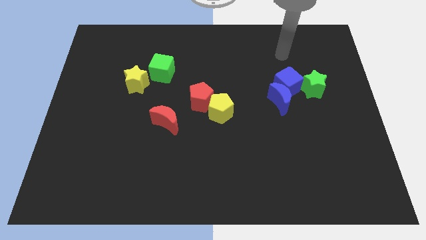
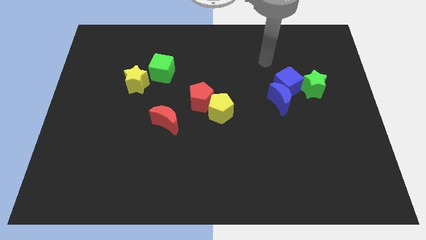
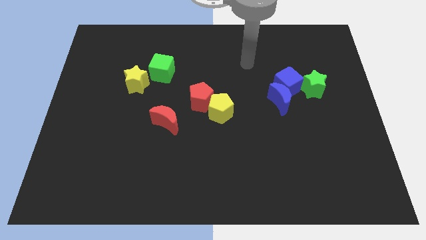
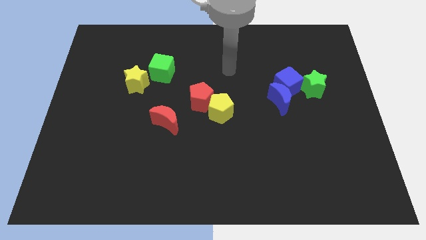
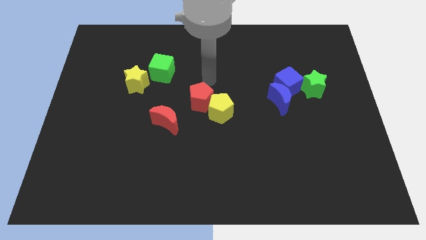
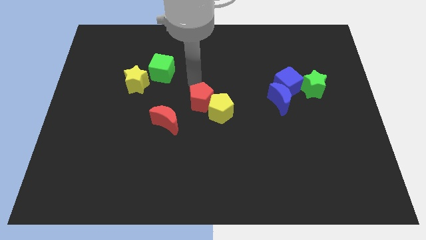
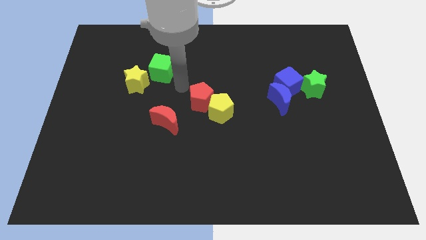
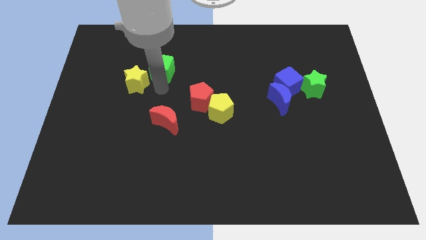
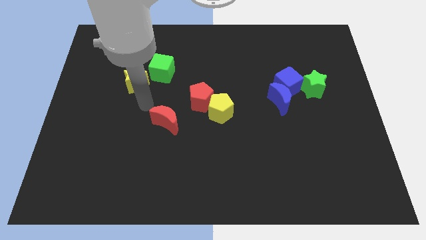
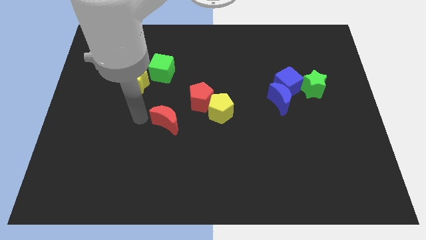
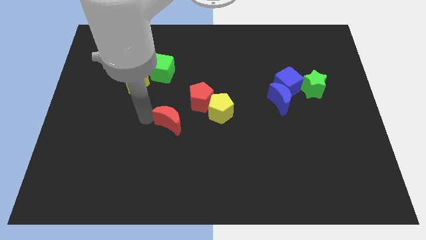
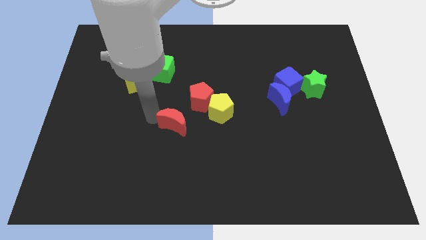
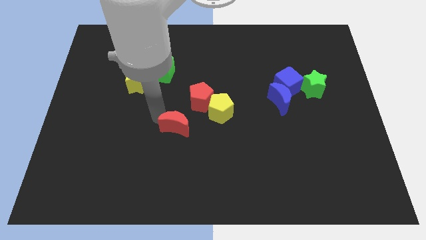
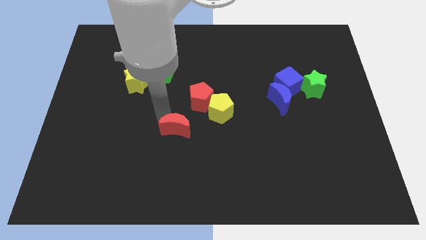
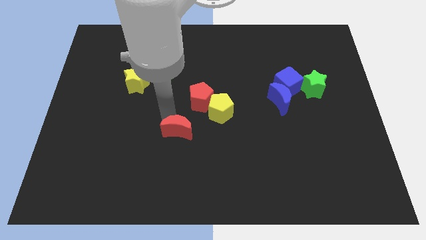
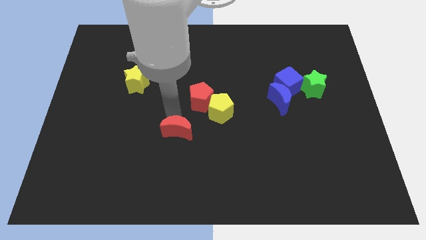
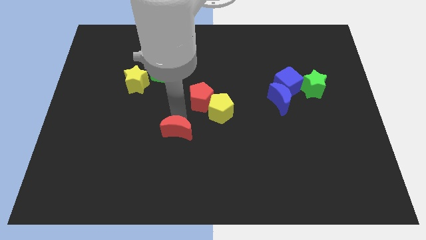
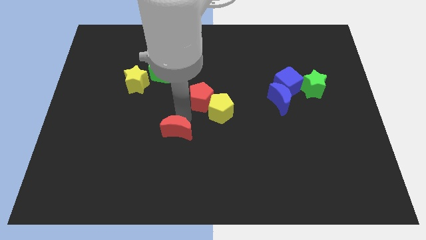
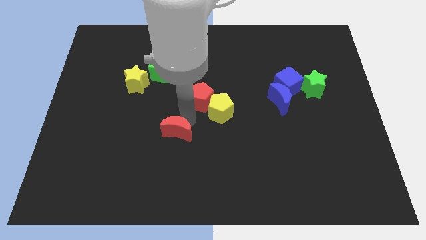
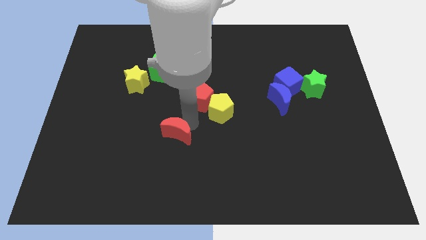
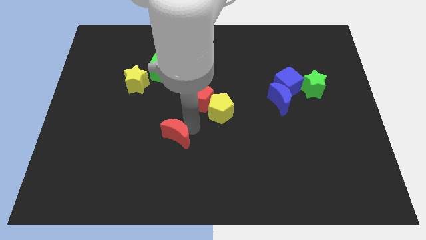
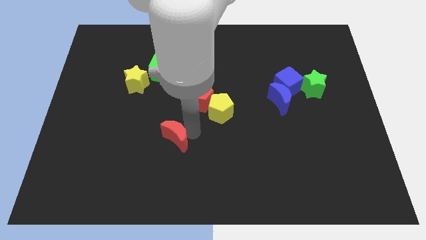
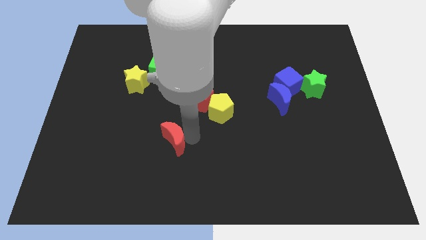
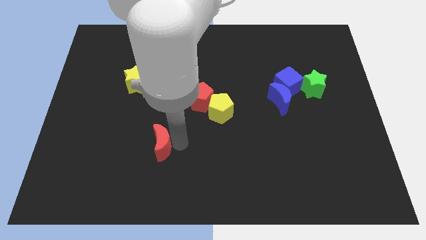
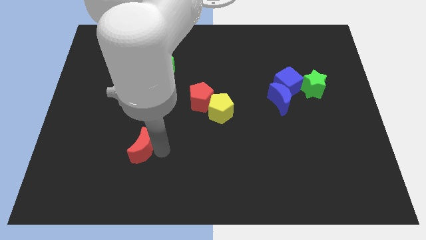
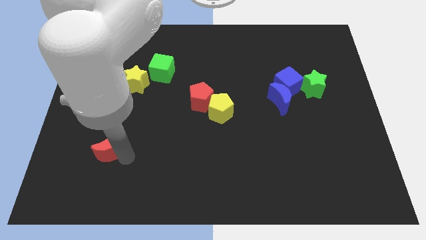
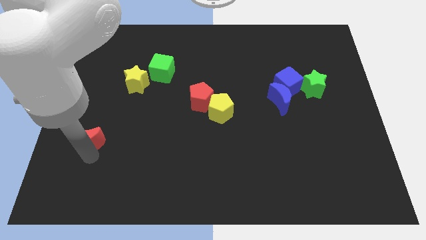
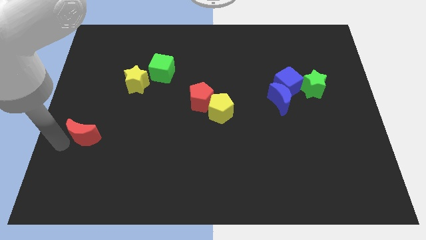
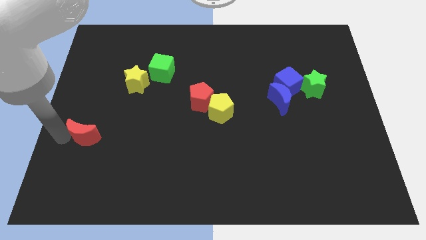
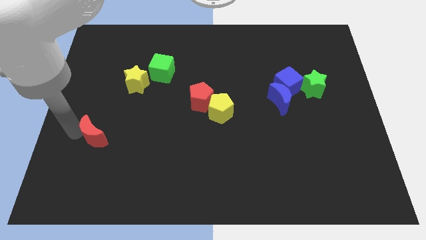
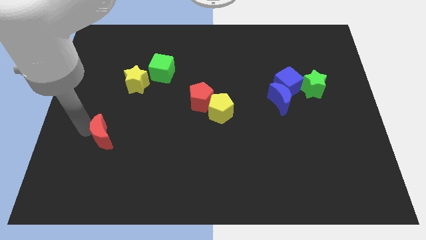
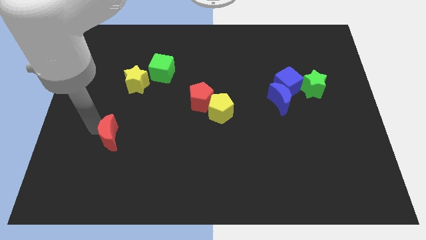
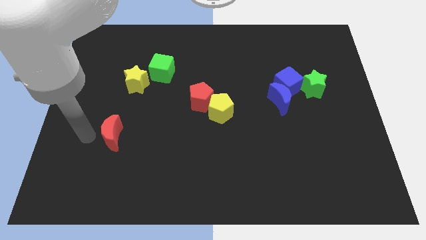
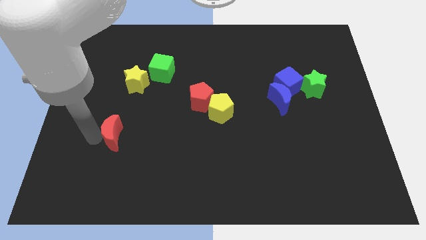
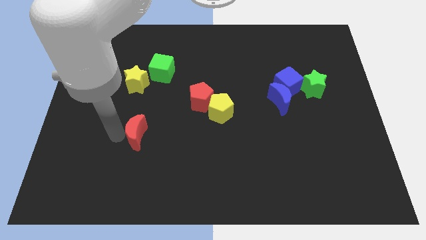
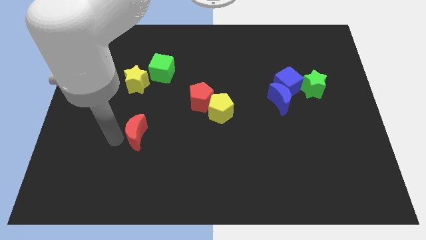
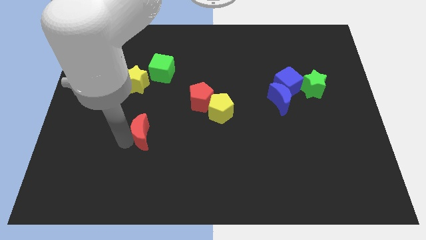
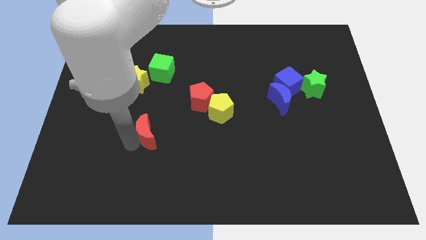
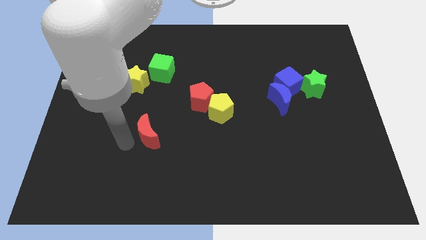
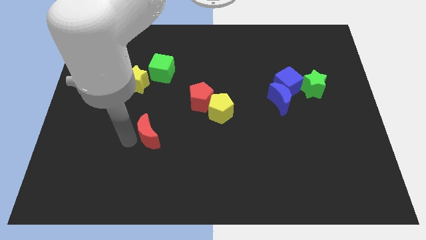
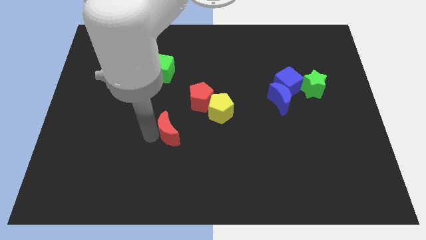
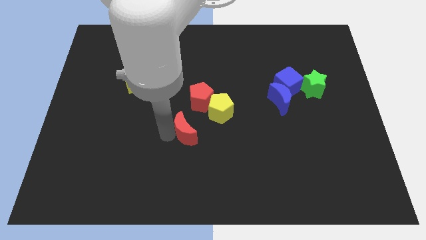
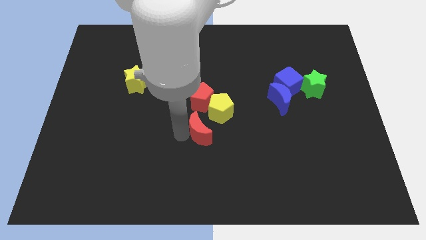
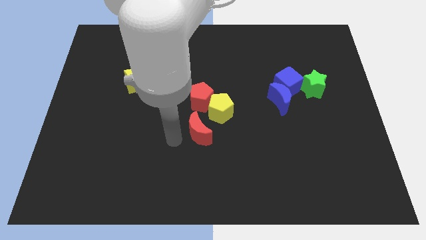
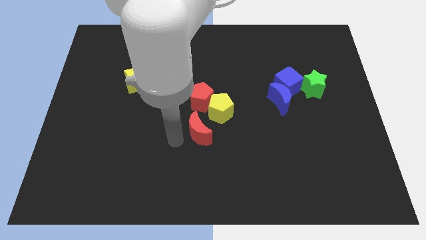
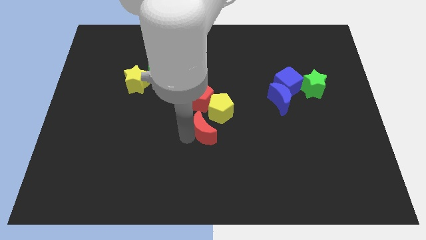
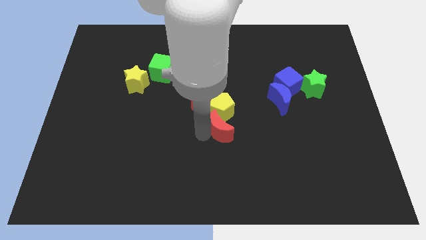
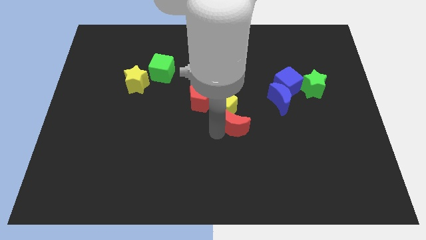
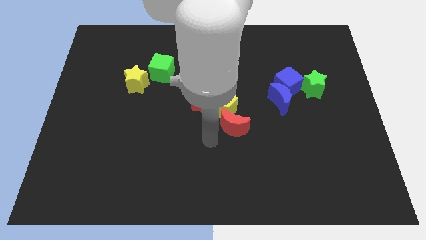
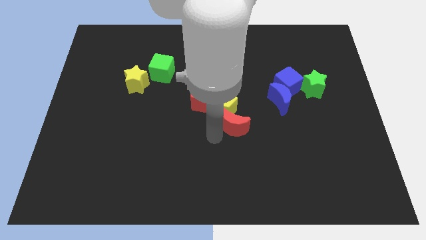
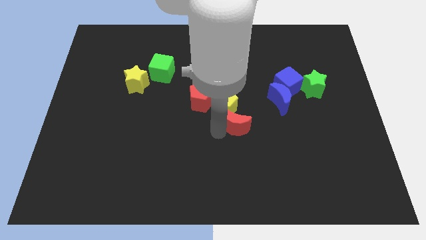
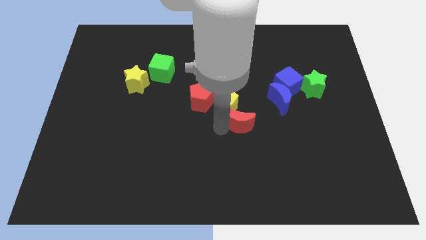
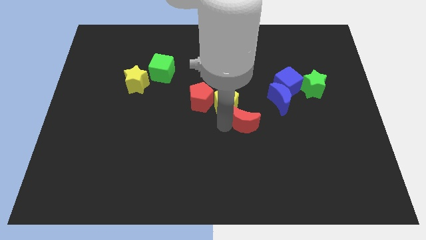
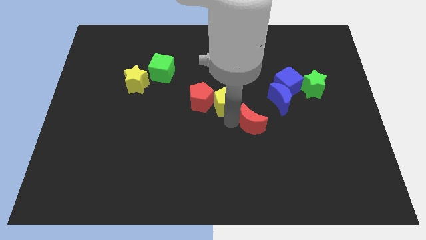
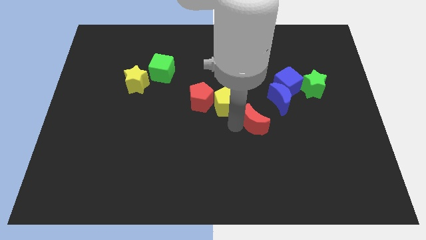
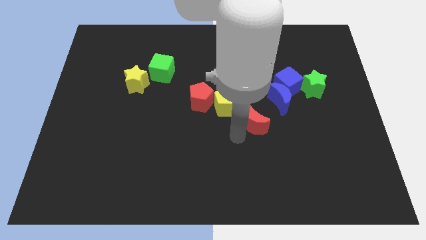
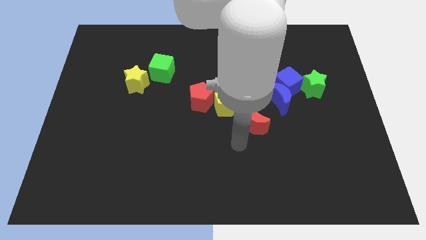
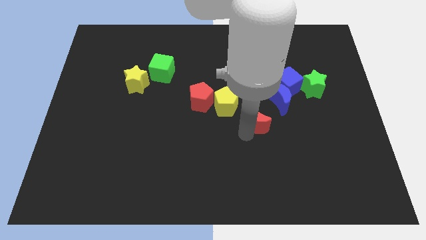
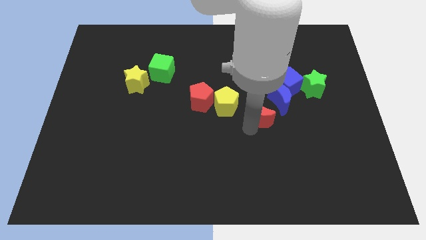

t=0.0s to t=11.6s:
put the red moon to the bottom left of the blue cube

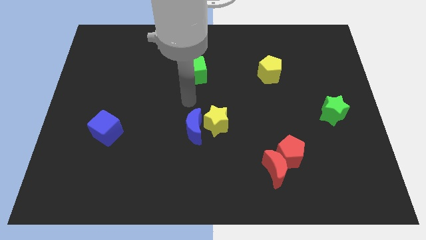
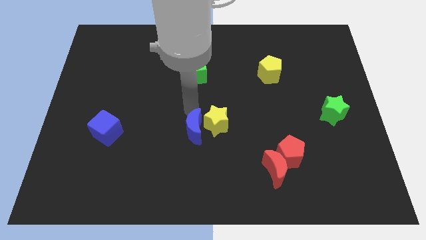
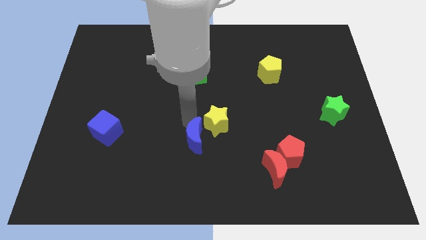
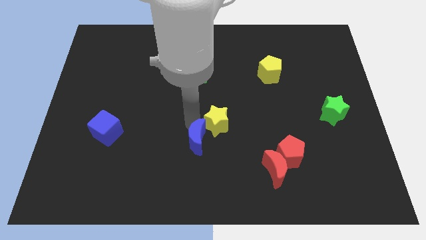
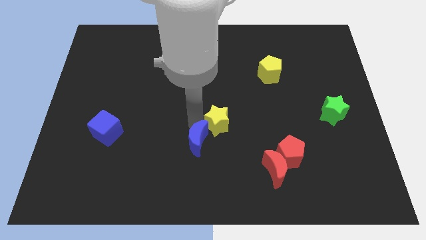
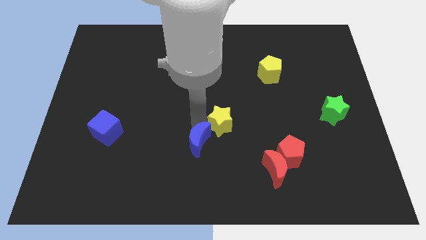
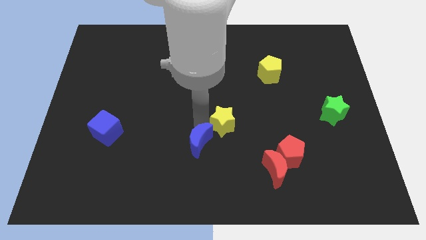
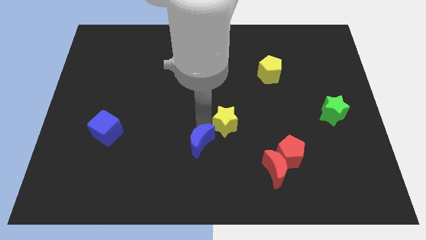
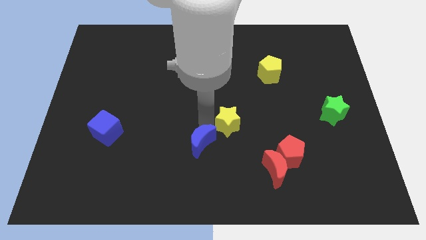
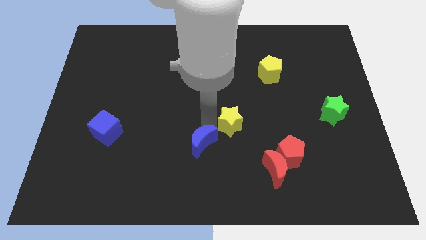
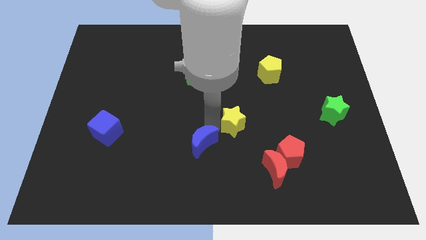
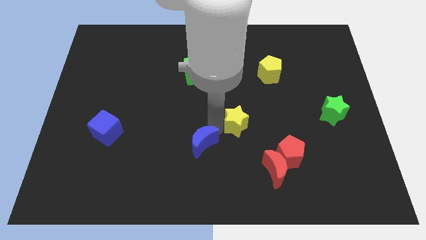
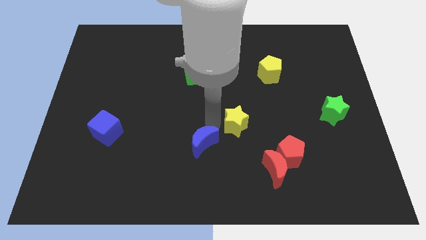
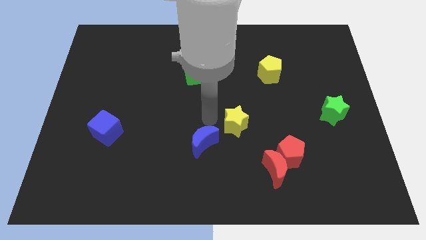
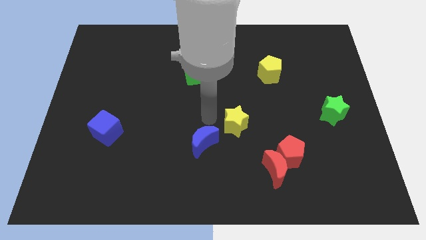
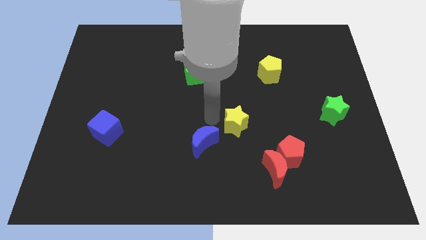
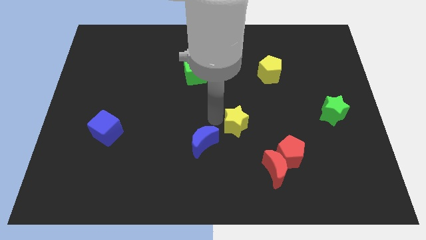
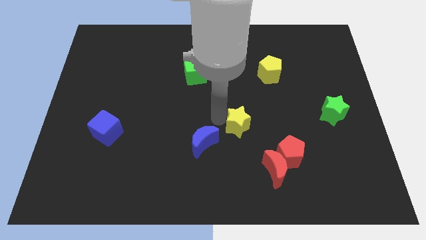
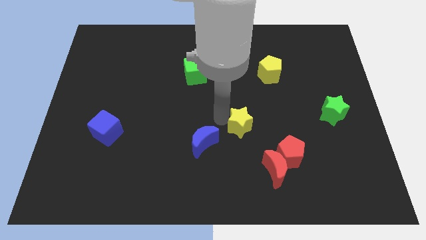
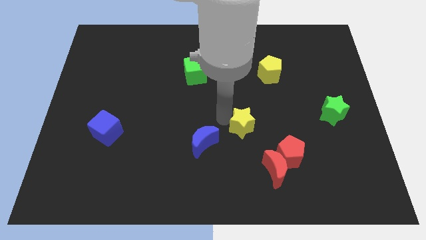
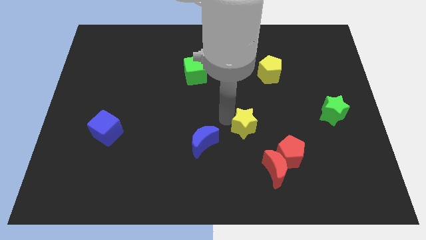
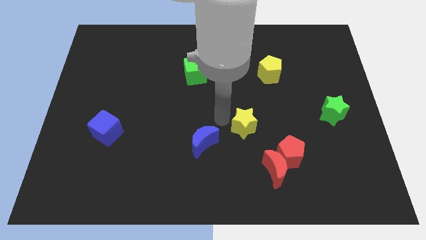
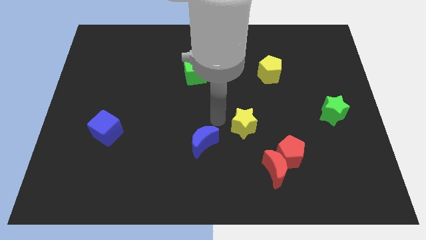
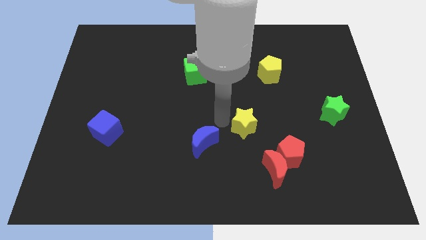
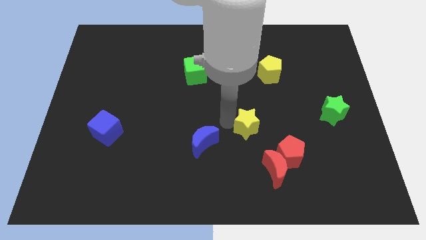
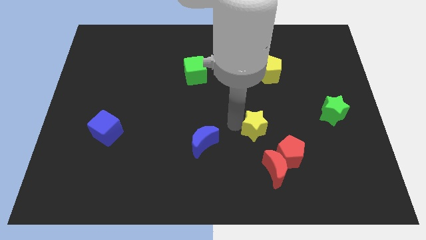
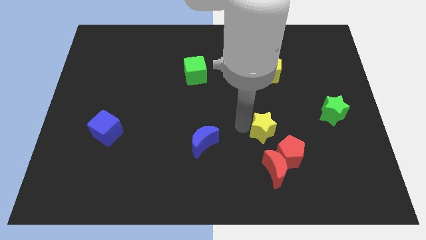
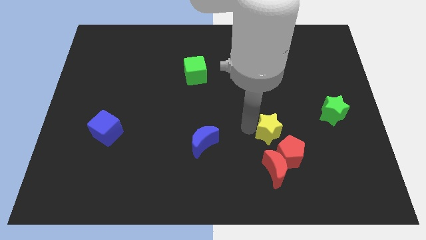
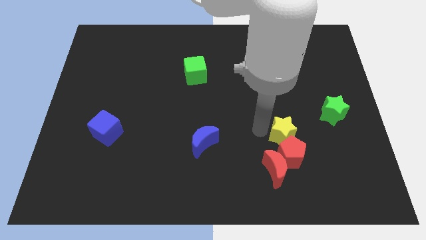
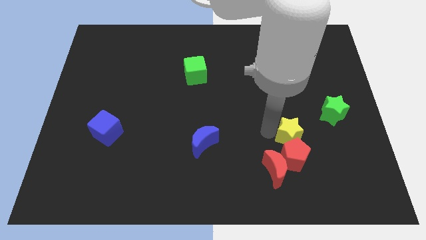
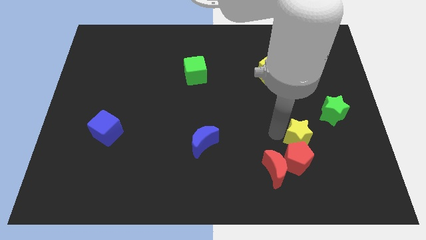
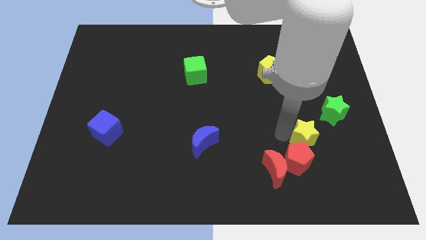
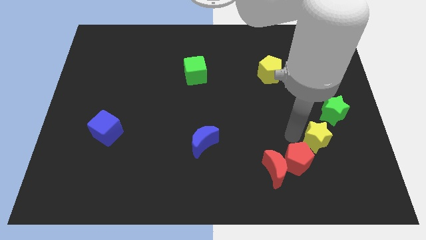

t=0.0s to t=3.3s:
move the yellow star to the bottom of the green star
